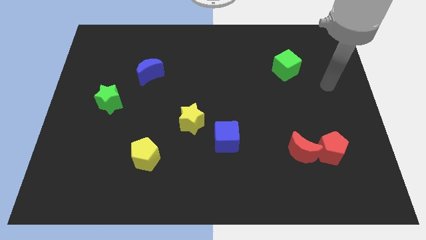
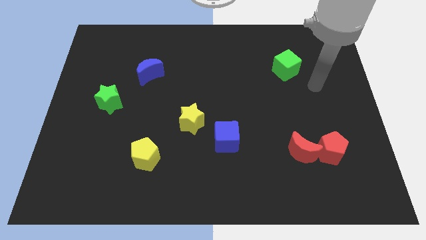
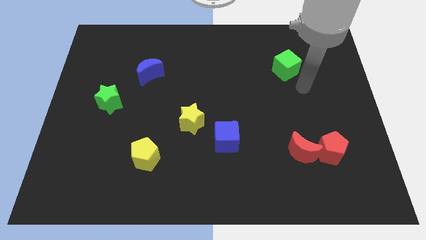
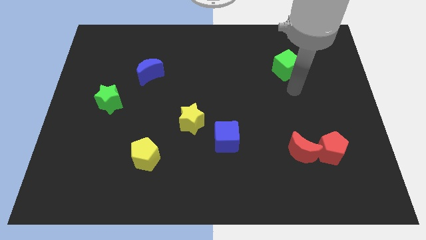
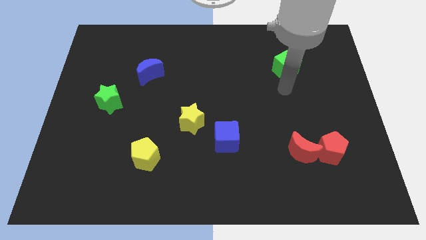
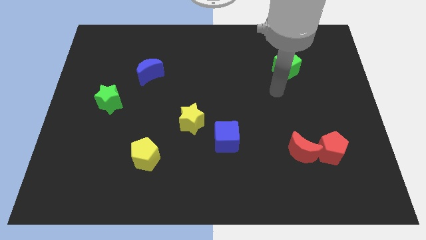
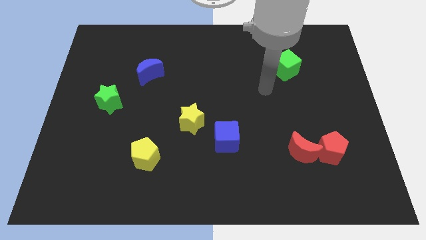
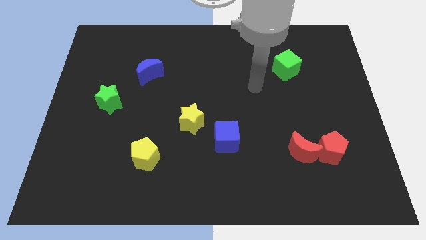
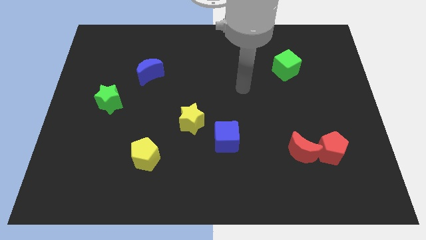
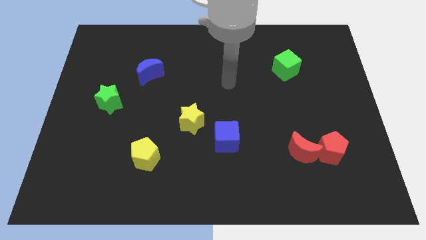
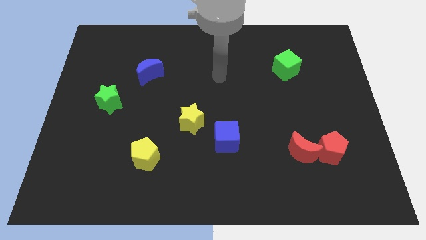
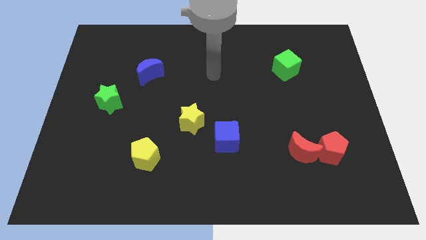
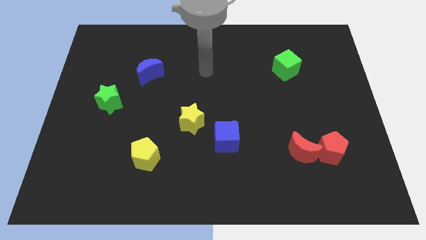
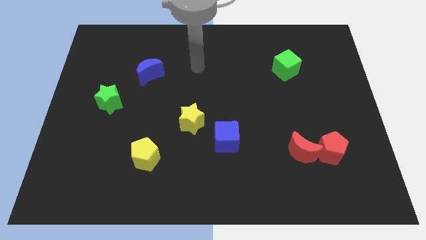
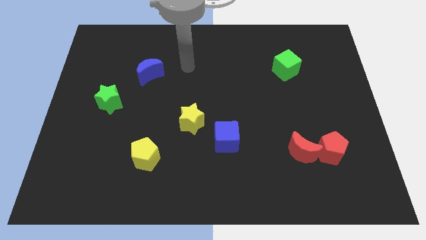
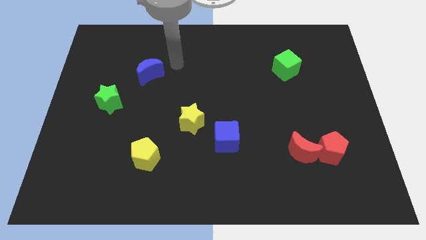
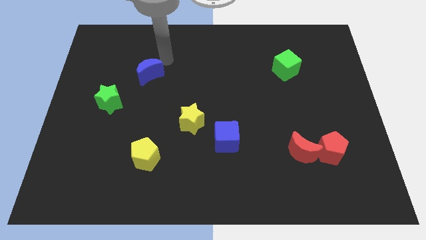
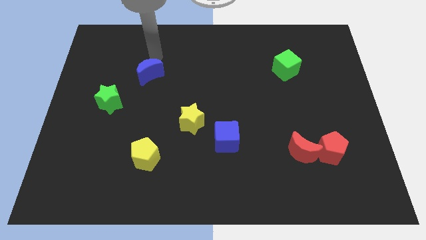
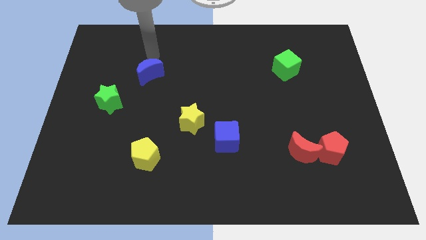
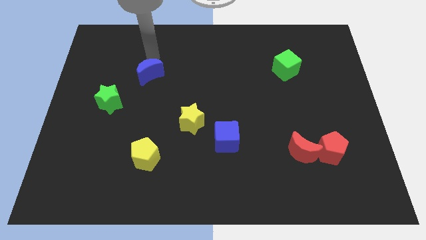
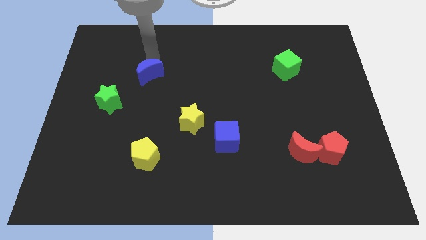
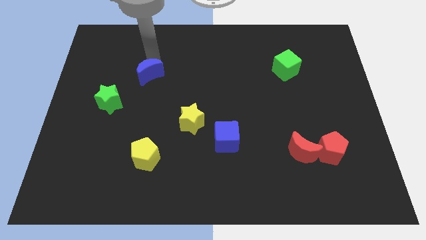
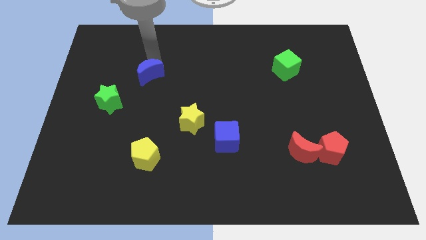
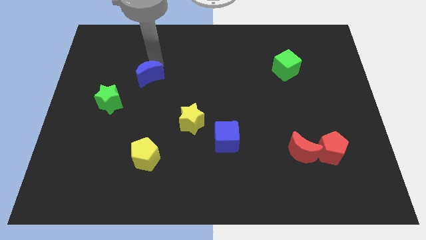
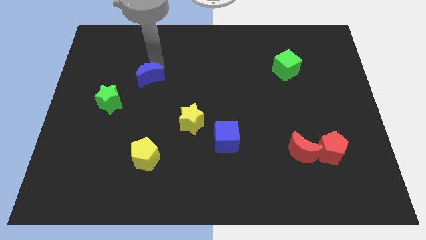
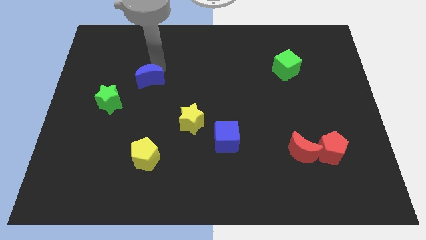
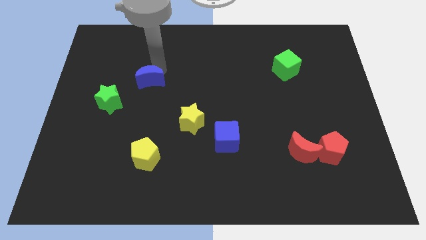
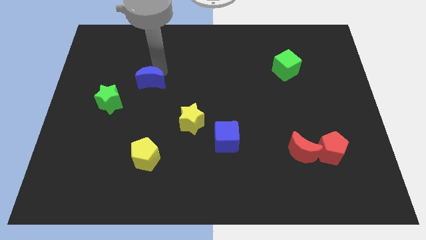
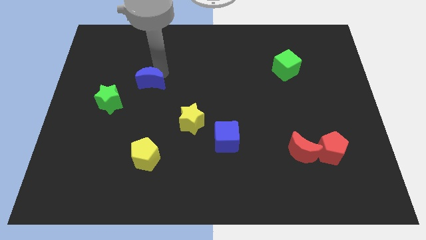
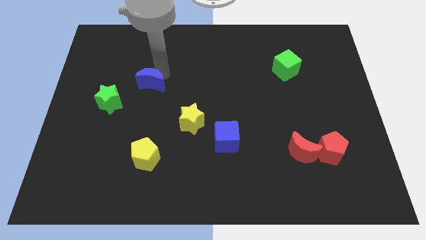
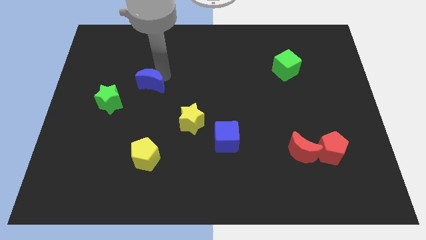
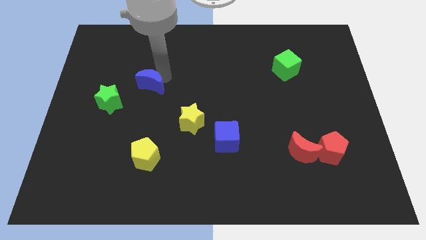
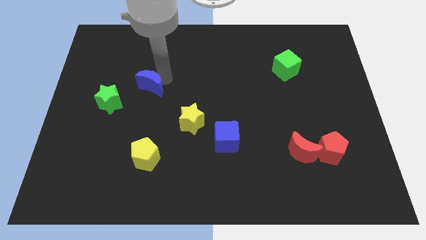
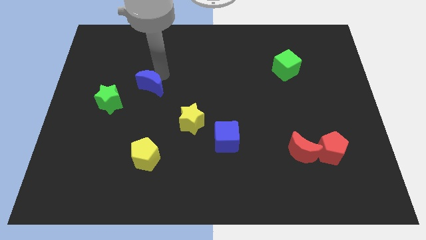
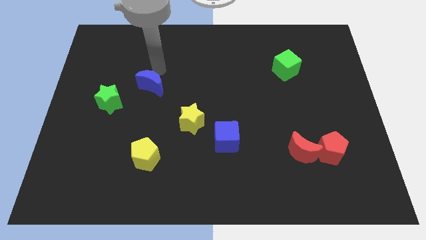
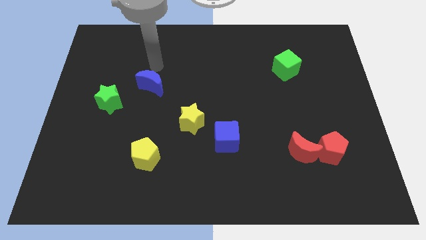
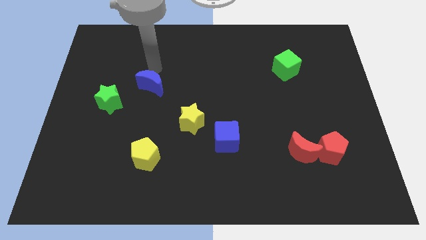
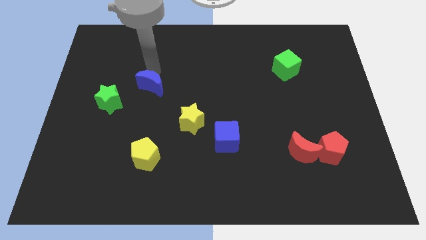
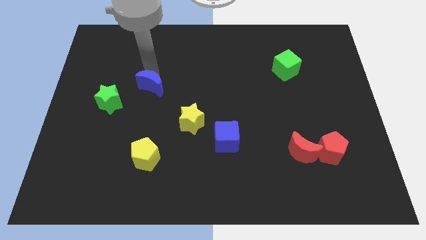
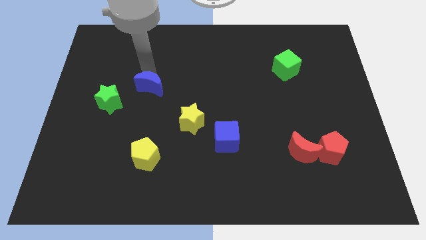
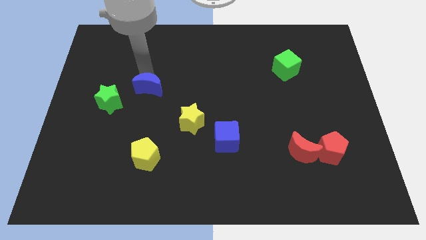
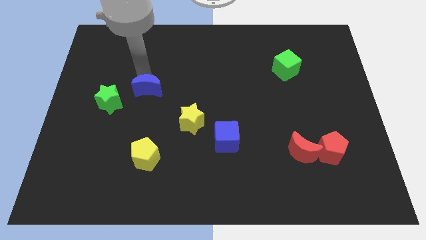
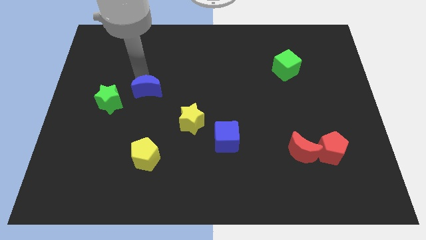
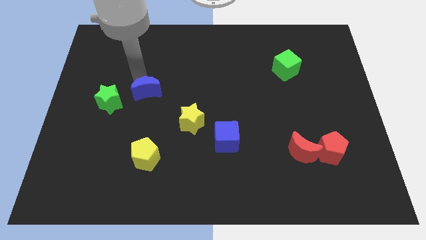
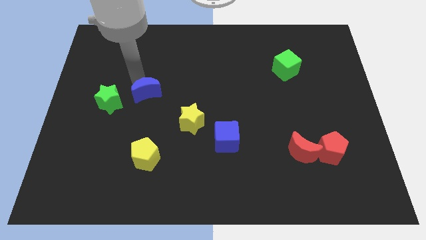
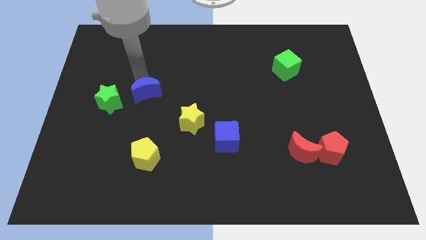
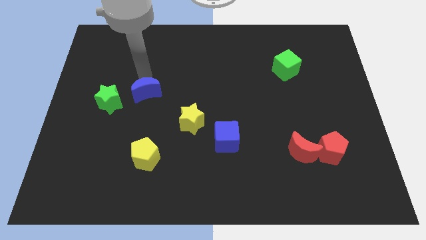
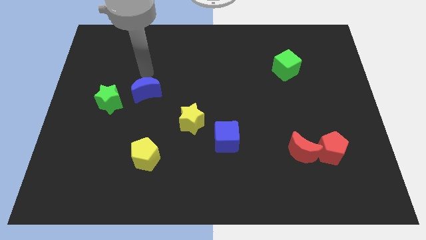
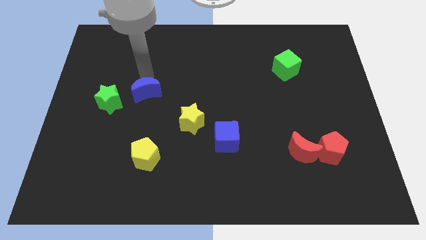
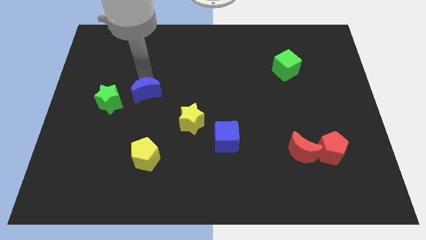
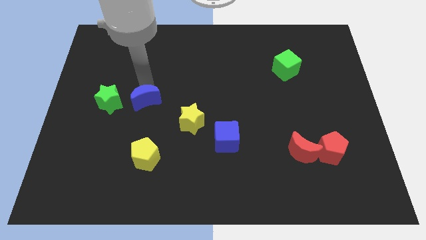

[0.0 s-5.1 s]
move the blue moon downwards slightly

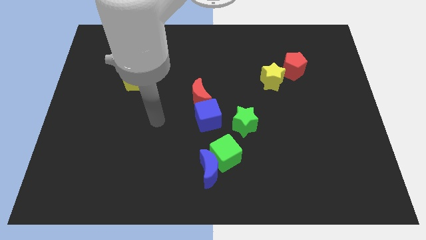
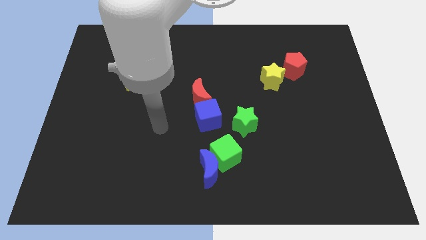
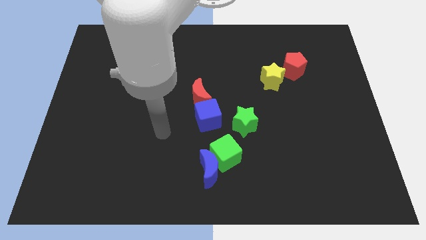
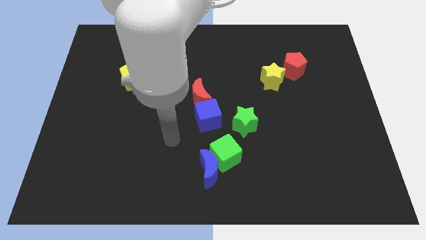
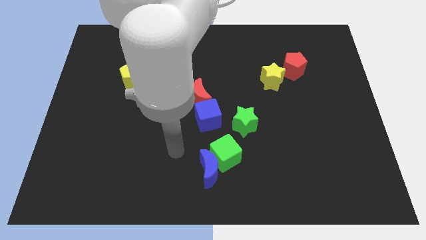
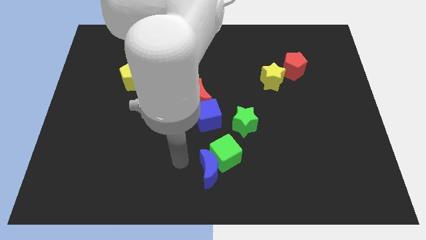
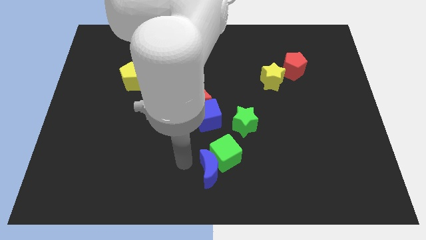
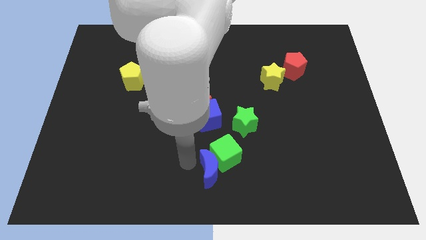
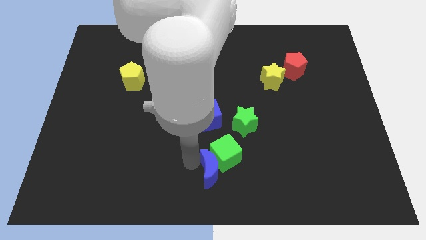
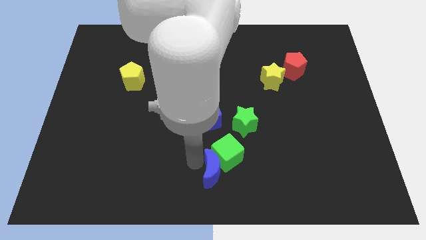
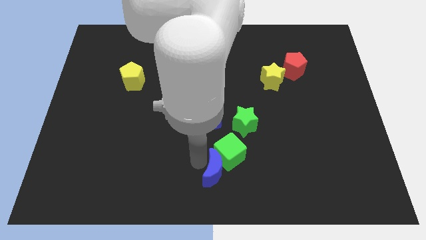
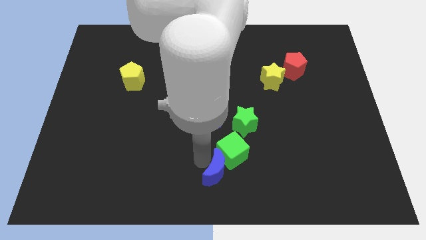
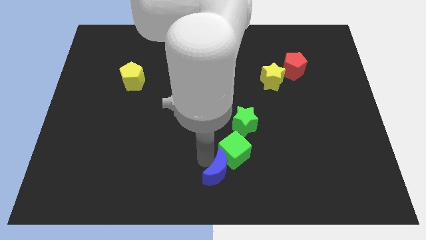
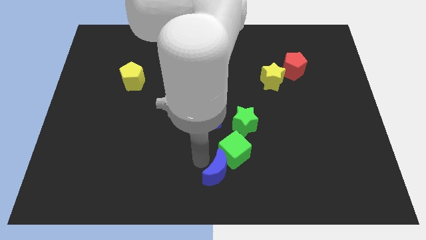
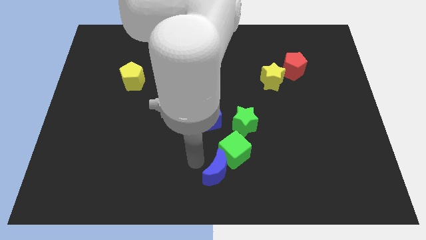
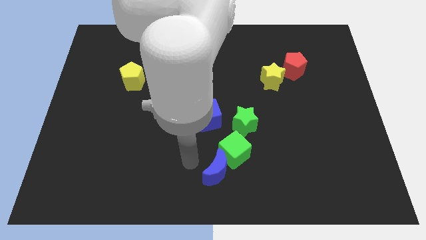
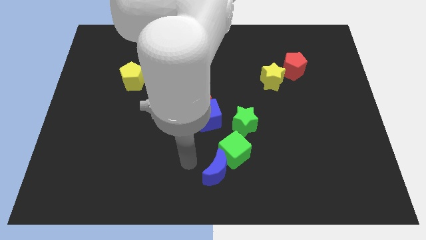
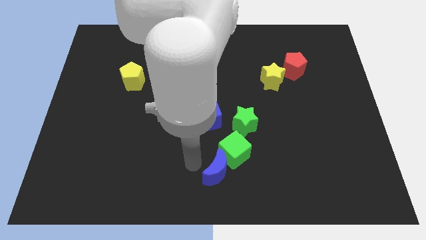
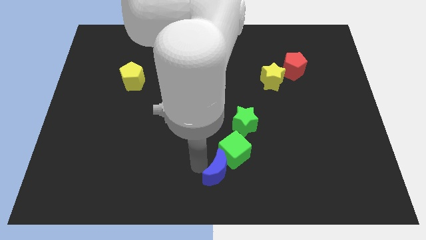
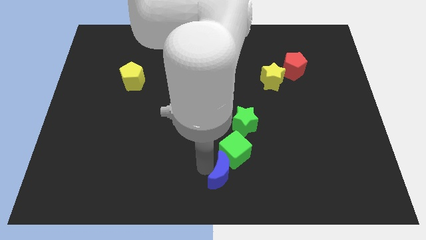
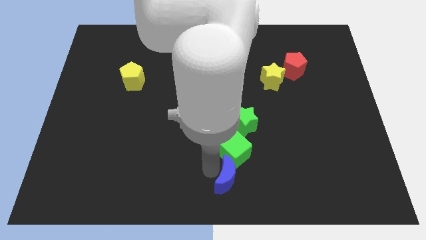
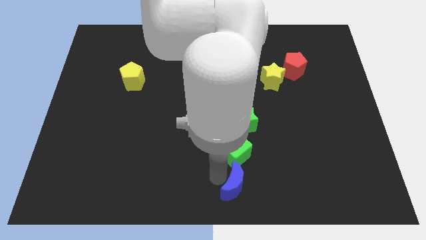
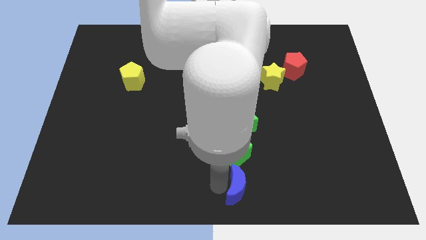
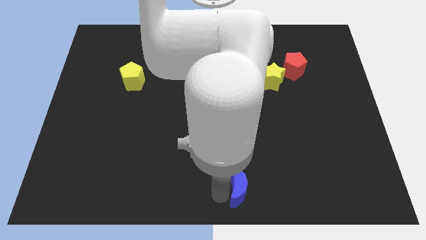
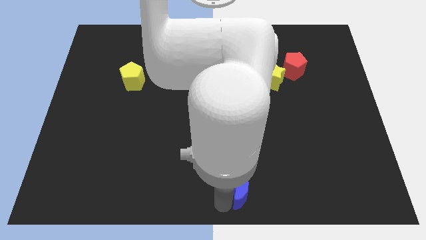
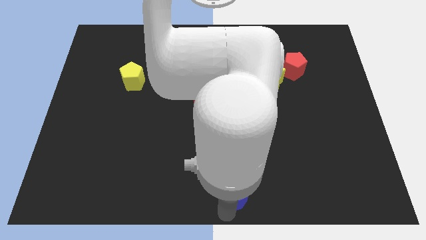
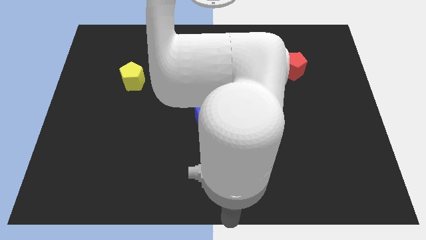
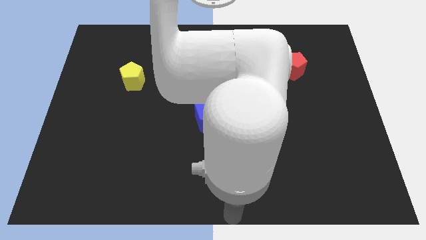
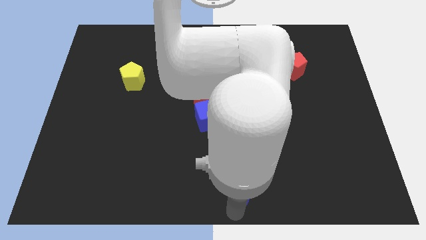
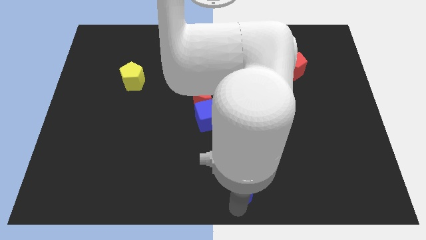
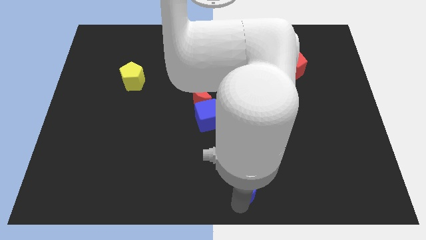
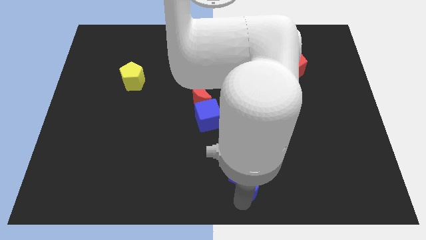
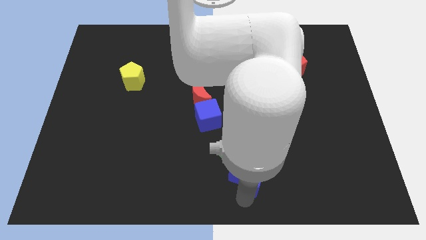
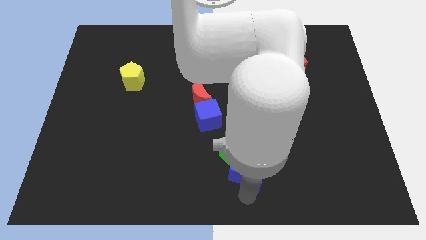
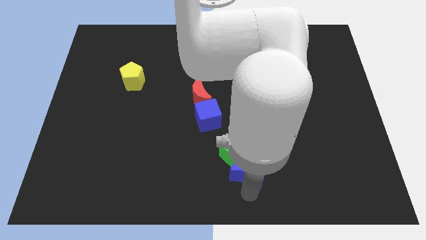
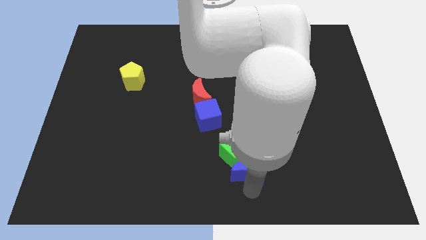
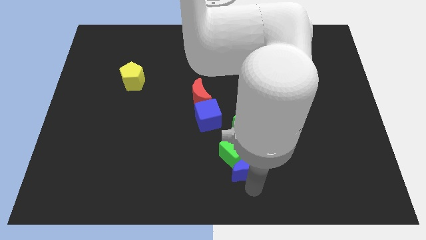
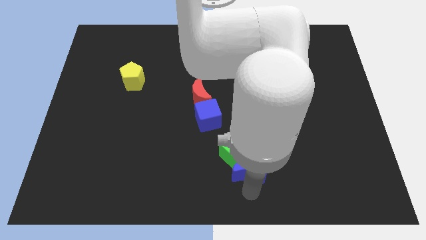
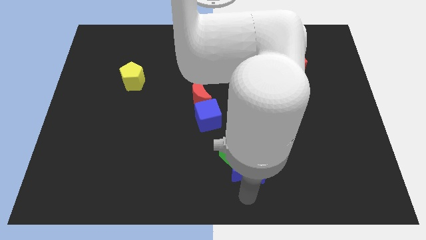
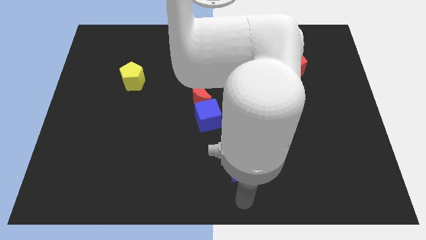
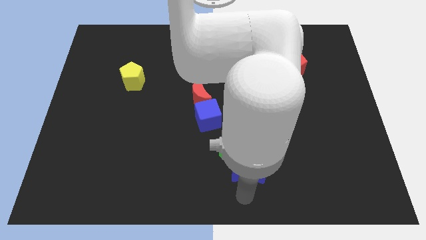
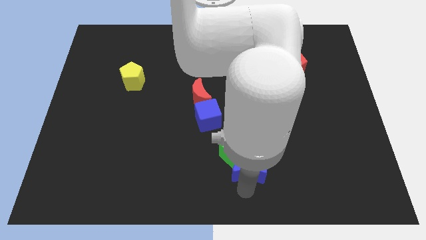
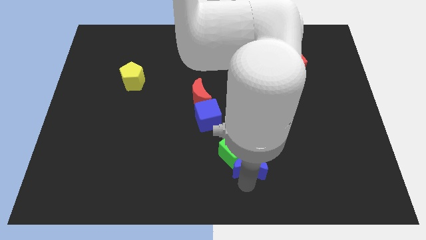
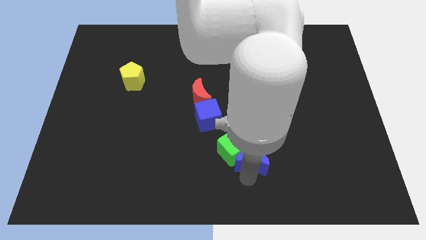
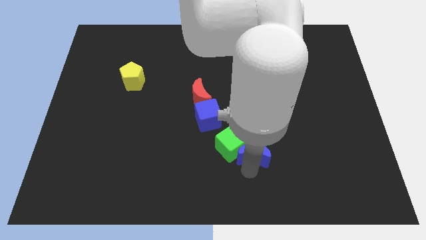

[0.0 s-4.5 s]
slightly push the blue moon up and right
